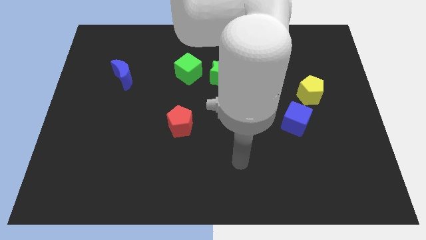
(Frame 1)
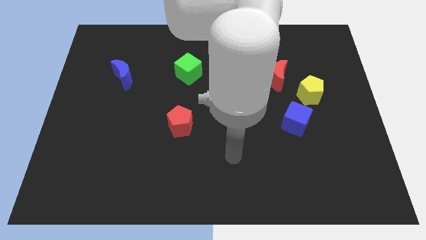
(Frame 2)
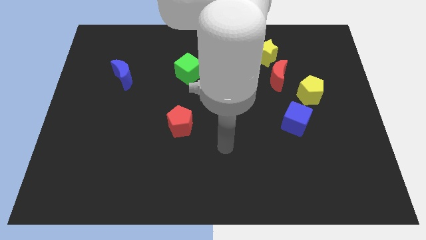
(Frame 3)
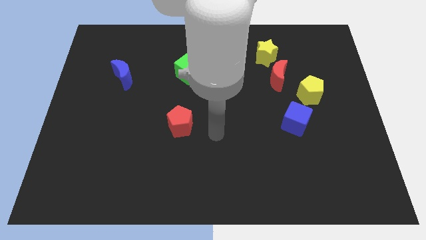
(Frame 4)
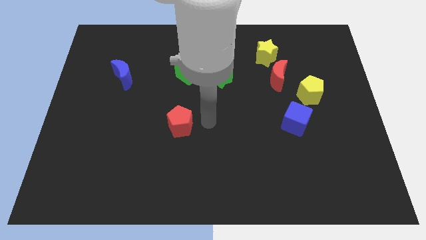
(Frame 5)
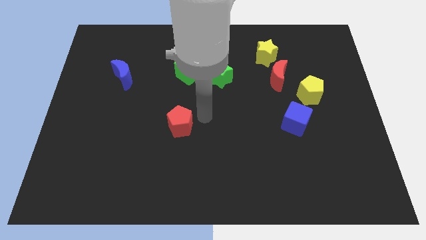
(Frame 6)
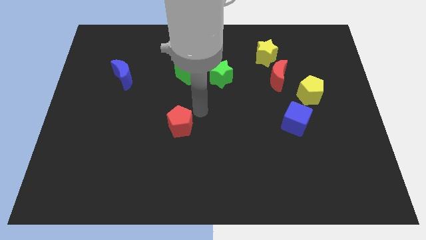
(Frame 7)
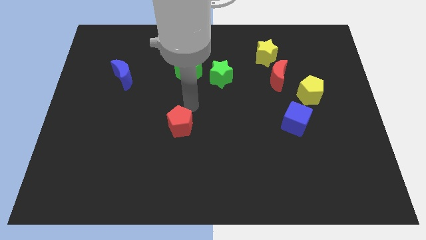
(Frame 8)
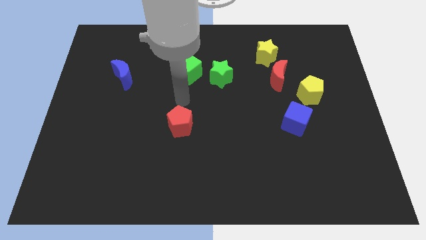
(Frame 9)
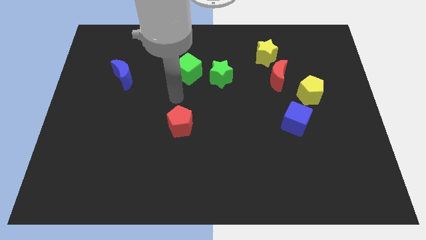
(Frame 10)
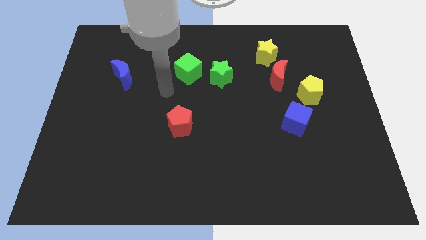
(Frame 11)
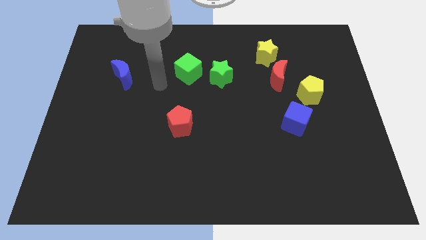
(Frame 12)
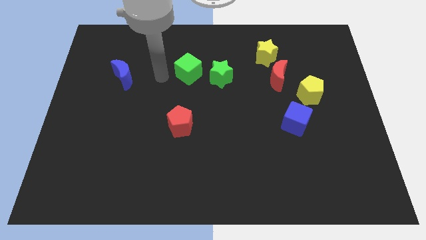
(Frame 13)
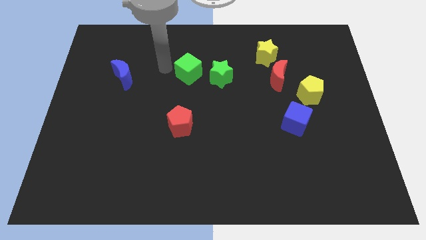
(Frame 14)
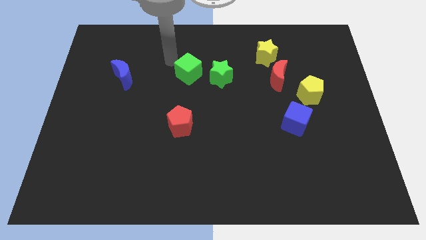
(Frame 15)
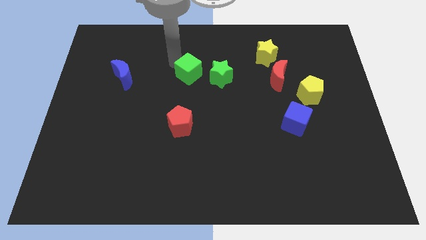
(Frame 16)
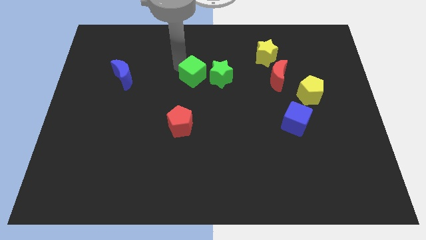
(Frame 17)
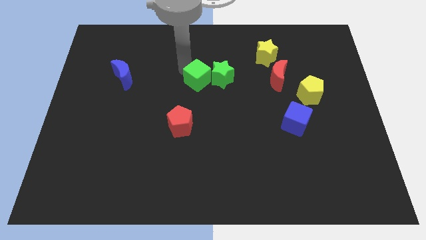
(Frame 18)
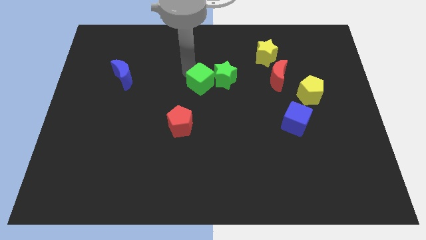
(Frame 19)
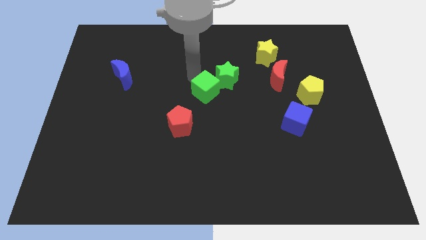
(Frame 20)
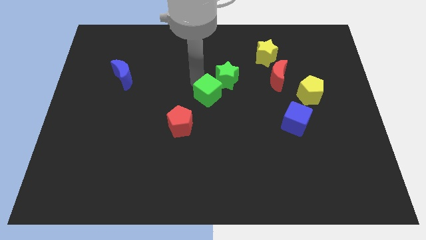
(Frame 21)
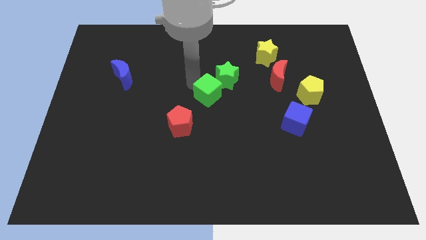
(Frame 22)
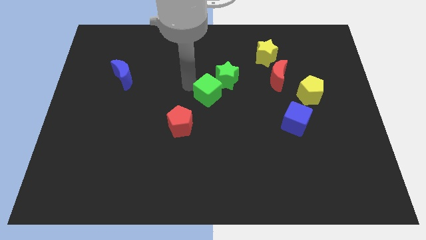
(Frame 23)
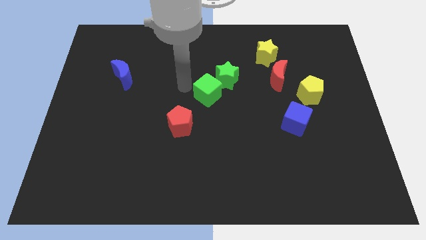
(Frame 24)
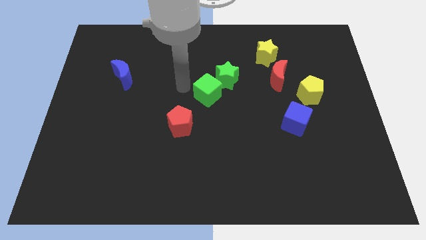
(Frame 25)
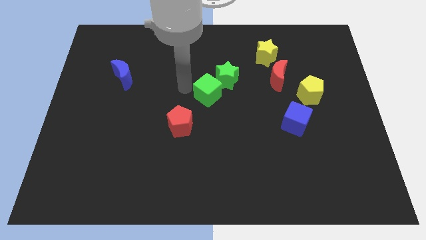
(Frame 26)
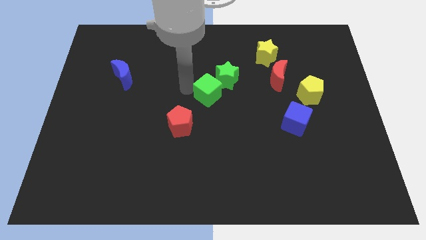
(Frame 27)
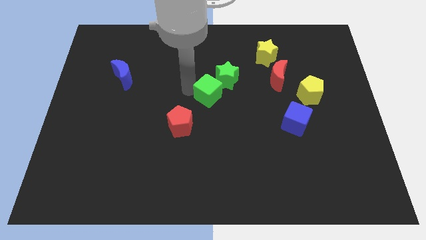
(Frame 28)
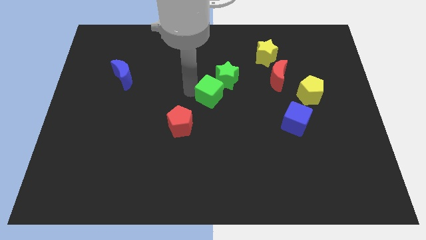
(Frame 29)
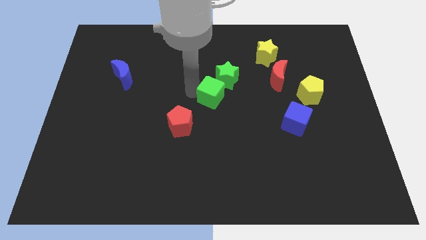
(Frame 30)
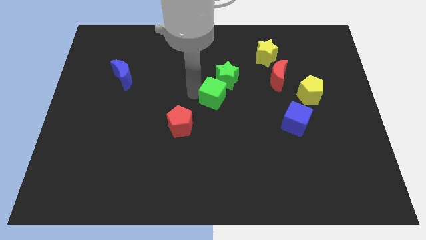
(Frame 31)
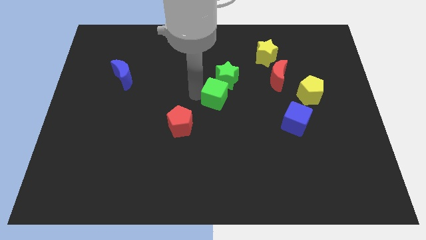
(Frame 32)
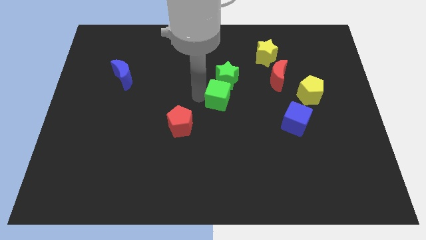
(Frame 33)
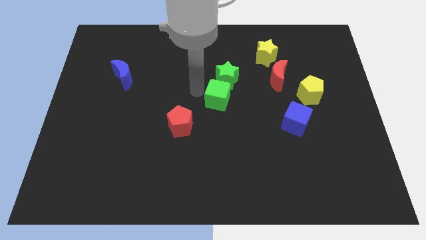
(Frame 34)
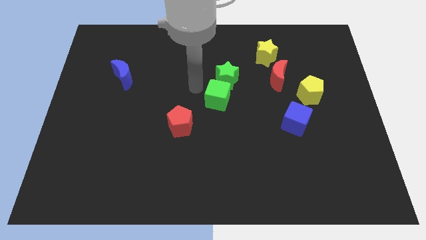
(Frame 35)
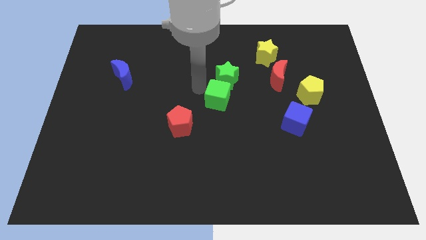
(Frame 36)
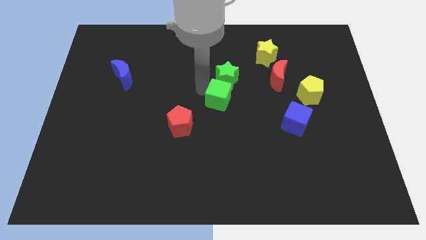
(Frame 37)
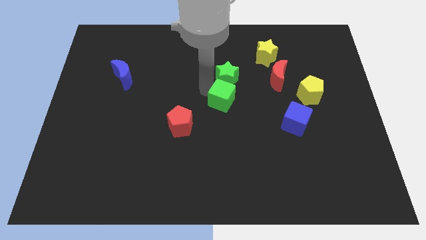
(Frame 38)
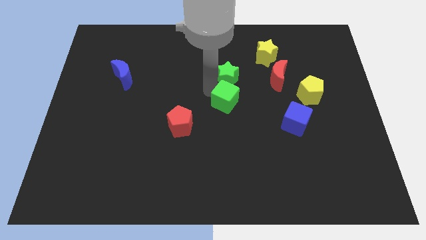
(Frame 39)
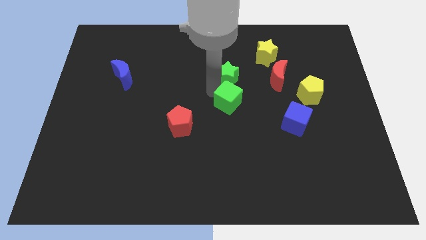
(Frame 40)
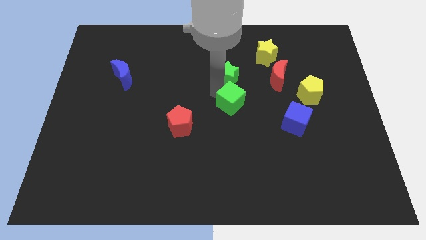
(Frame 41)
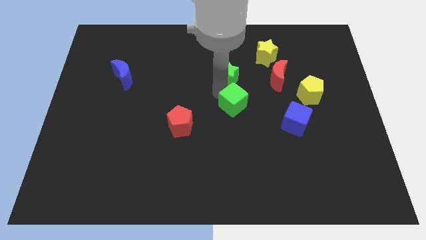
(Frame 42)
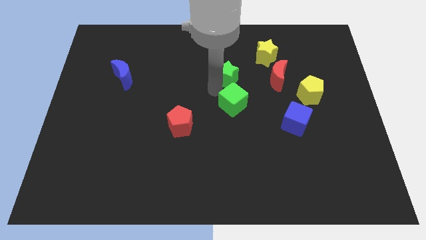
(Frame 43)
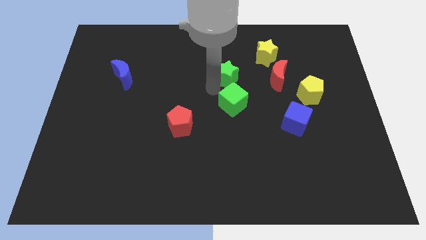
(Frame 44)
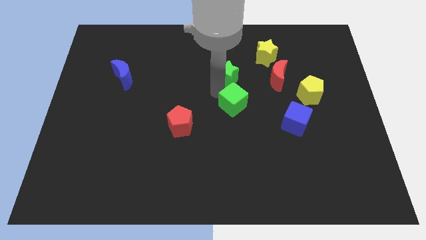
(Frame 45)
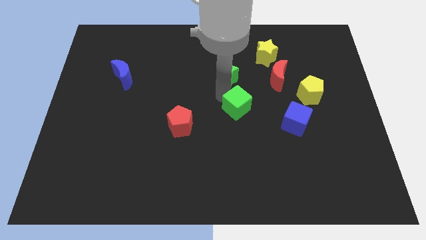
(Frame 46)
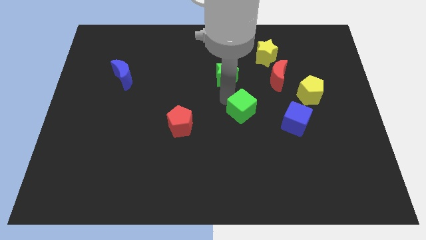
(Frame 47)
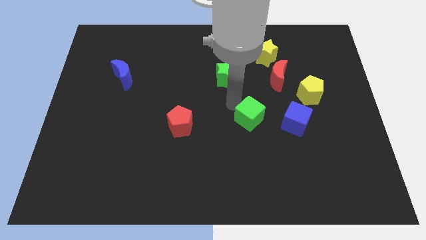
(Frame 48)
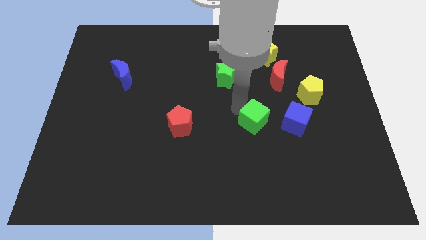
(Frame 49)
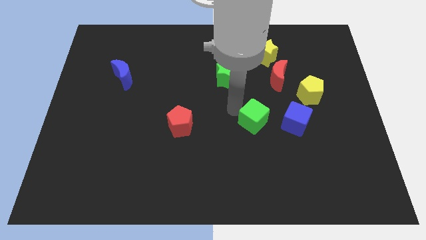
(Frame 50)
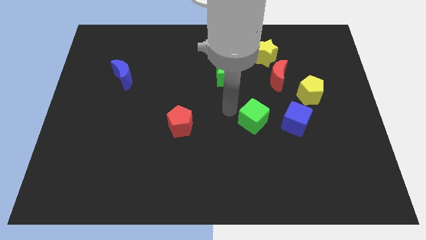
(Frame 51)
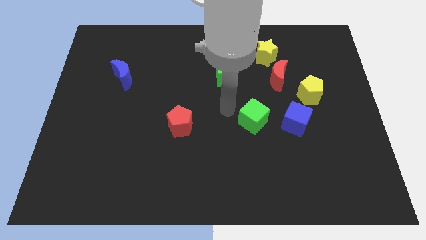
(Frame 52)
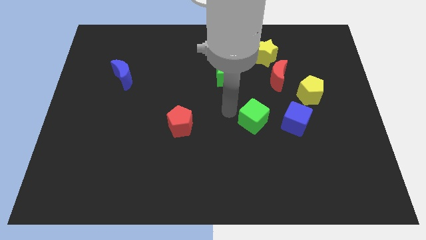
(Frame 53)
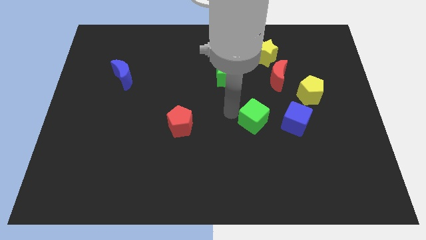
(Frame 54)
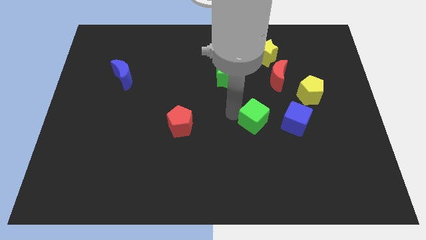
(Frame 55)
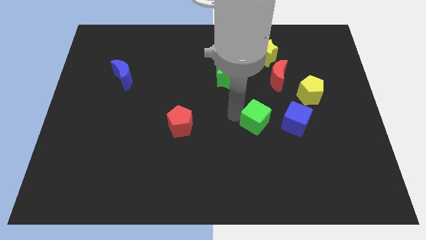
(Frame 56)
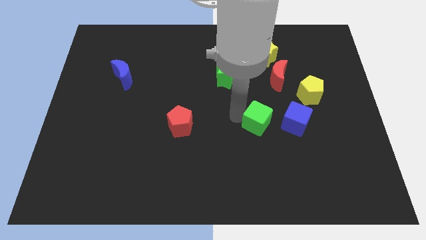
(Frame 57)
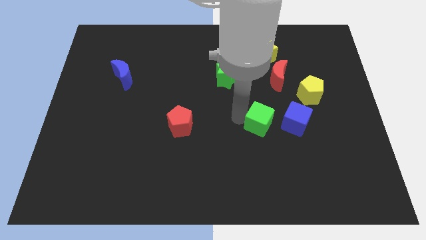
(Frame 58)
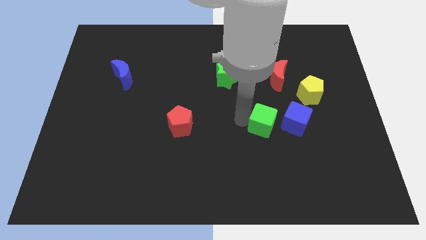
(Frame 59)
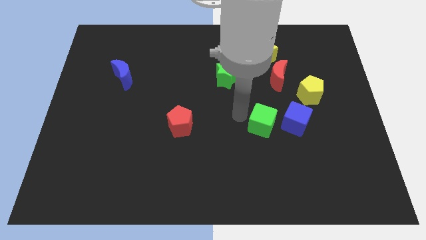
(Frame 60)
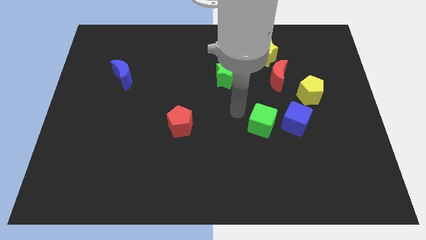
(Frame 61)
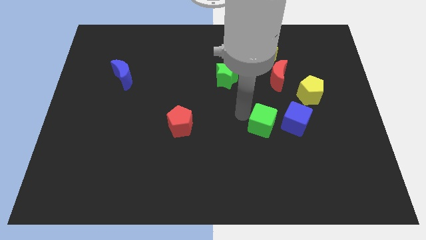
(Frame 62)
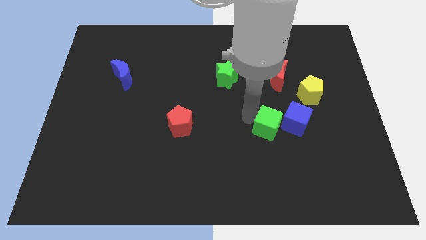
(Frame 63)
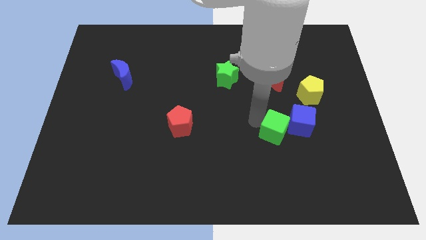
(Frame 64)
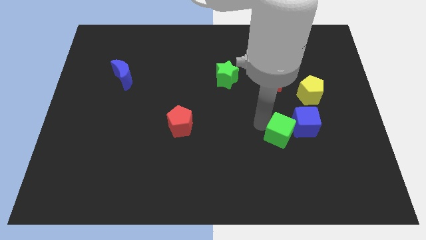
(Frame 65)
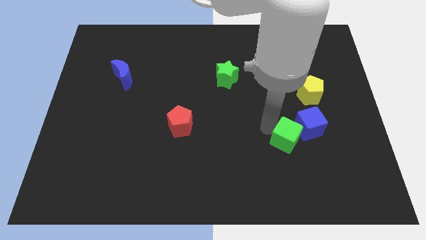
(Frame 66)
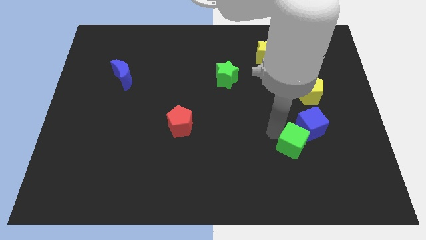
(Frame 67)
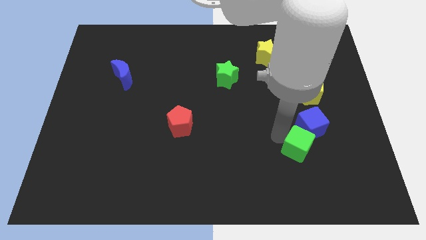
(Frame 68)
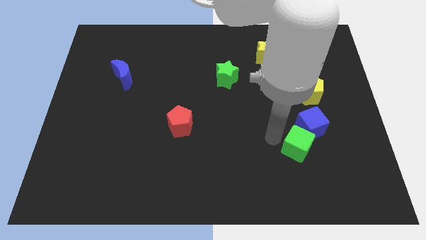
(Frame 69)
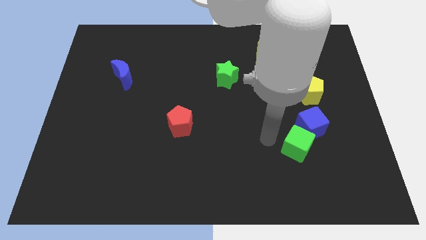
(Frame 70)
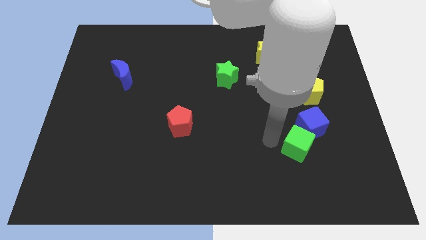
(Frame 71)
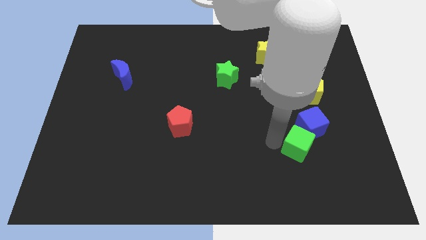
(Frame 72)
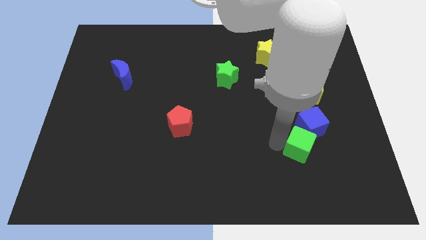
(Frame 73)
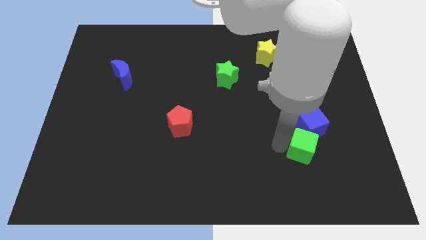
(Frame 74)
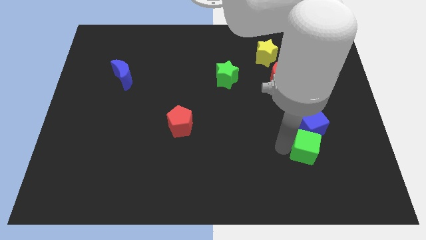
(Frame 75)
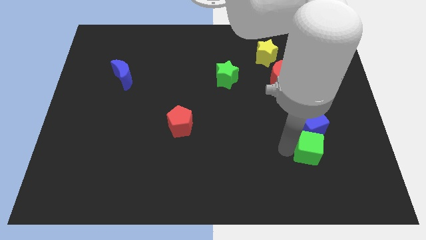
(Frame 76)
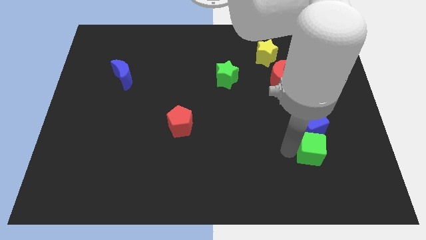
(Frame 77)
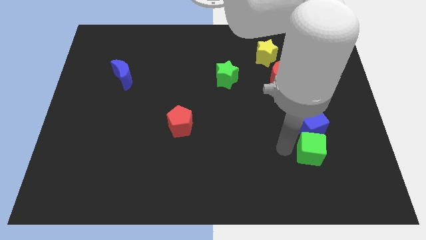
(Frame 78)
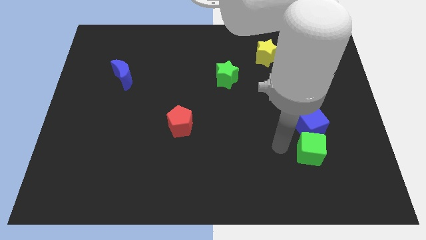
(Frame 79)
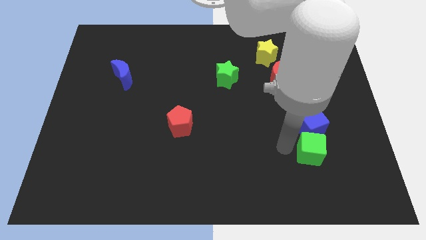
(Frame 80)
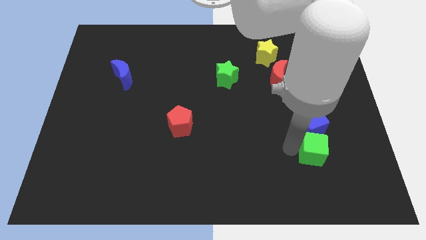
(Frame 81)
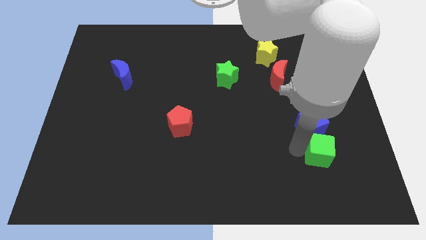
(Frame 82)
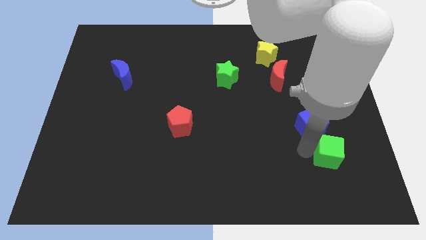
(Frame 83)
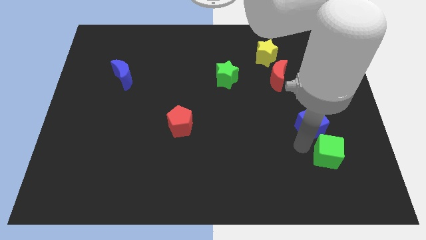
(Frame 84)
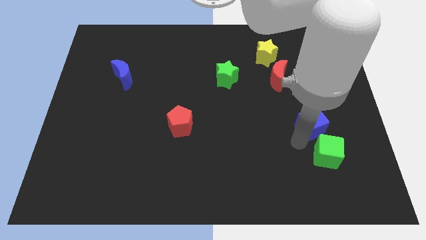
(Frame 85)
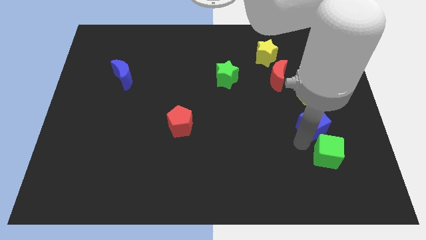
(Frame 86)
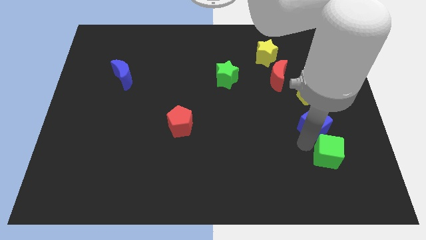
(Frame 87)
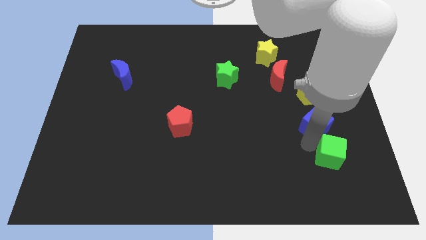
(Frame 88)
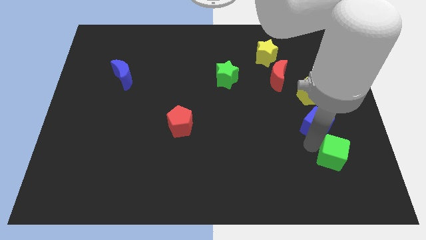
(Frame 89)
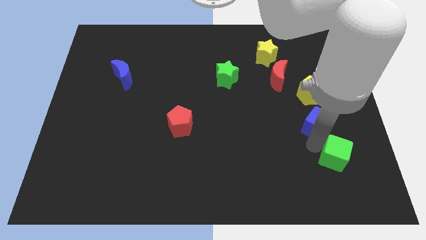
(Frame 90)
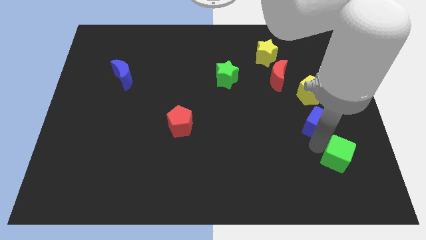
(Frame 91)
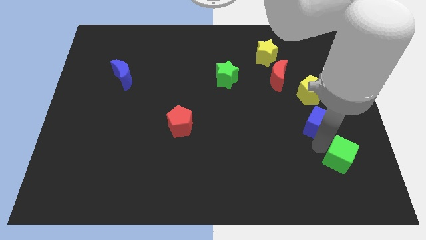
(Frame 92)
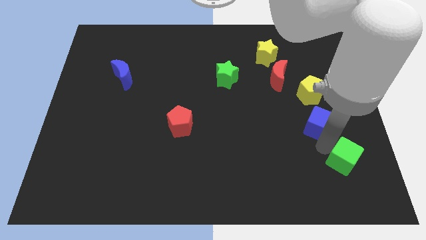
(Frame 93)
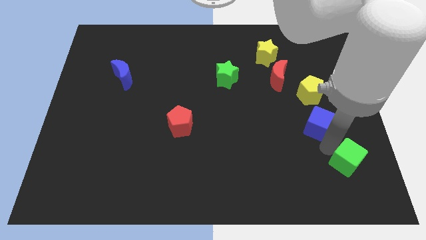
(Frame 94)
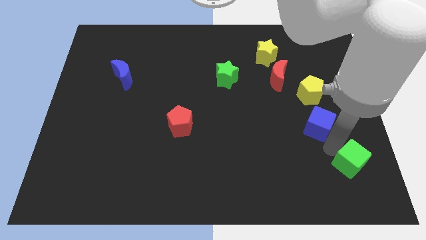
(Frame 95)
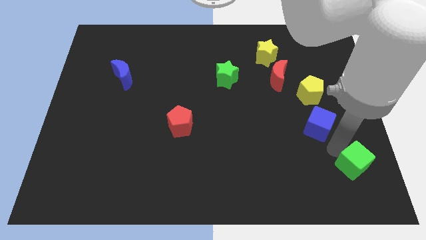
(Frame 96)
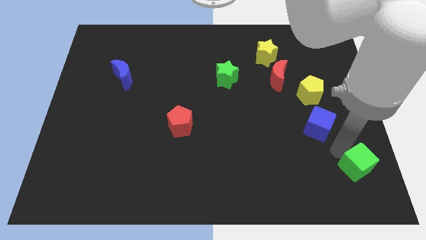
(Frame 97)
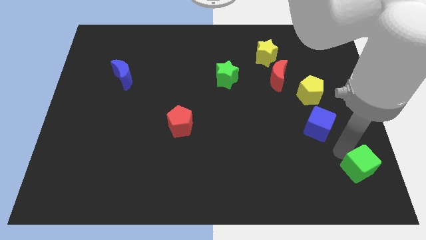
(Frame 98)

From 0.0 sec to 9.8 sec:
slide the green cube to the bottom right corner
